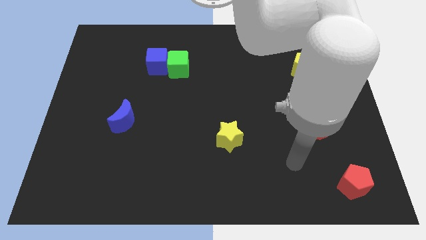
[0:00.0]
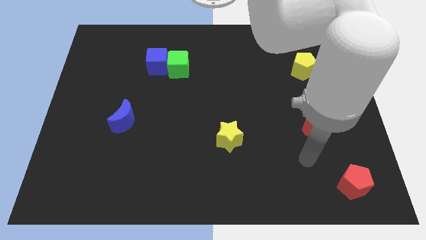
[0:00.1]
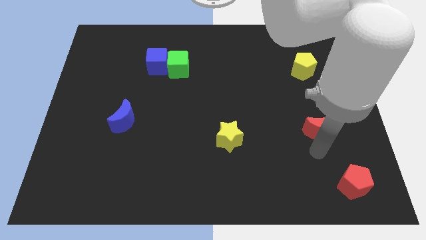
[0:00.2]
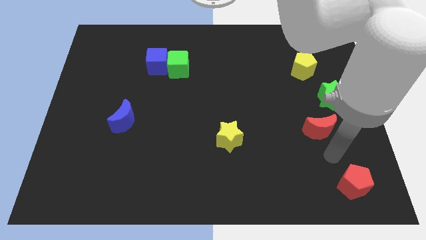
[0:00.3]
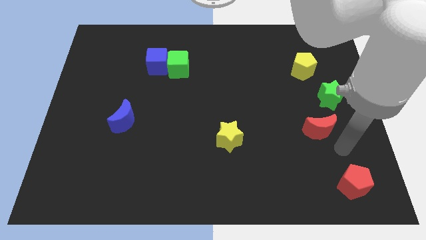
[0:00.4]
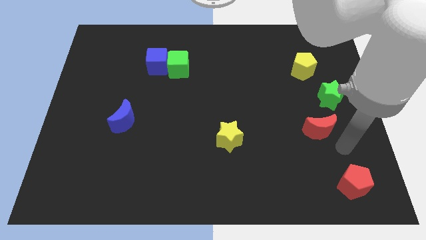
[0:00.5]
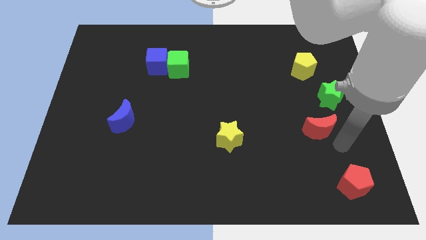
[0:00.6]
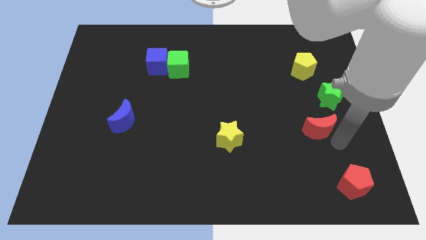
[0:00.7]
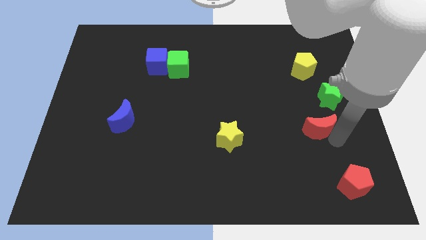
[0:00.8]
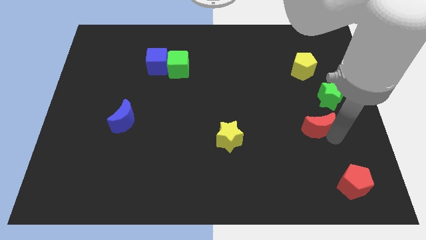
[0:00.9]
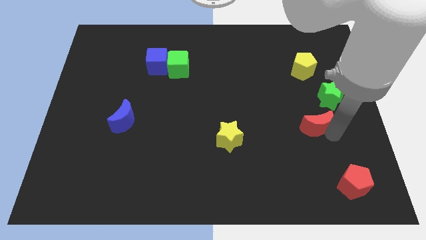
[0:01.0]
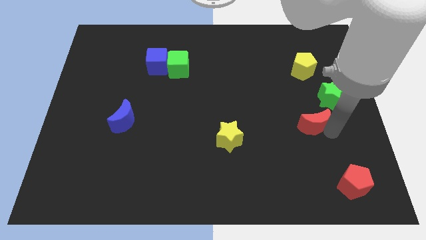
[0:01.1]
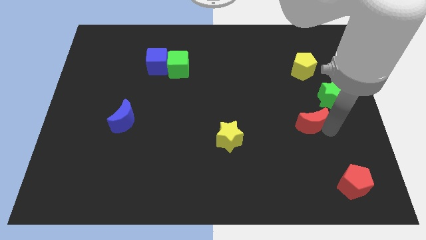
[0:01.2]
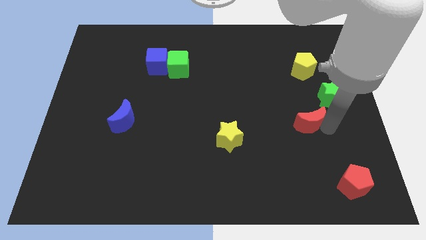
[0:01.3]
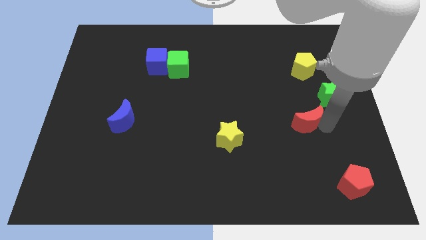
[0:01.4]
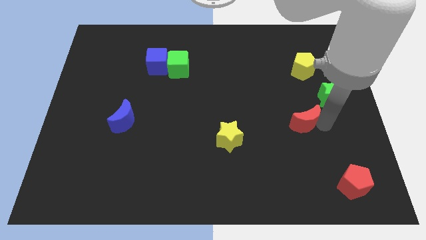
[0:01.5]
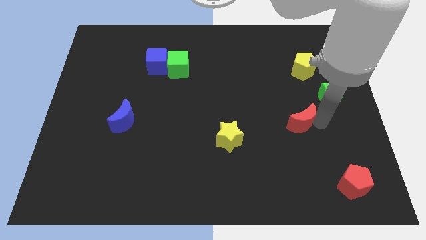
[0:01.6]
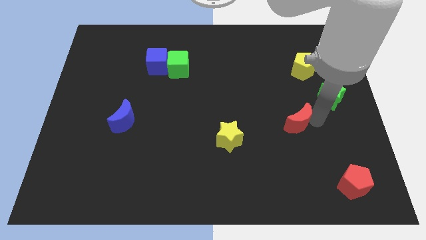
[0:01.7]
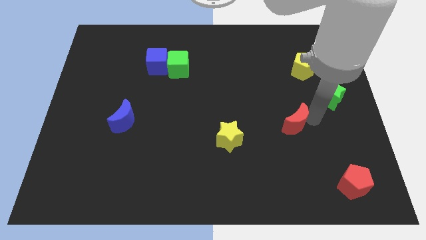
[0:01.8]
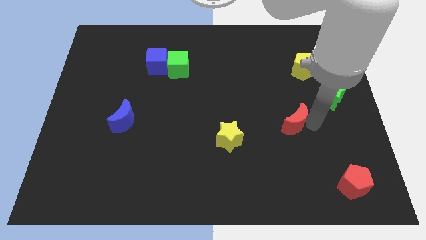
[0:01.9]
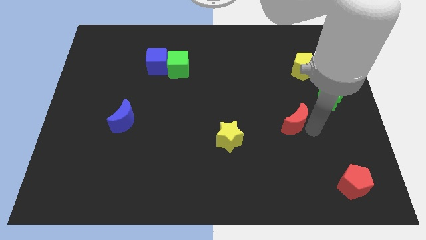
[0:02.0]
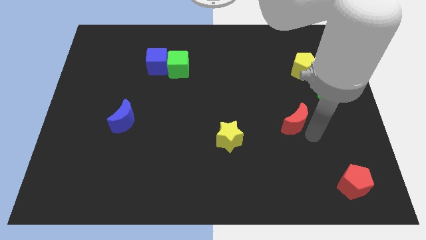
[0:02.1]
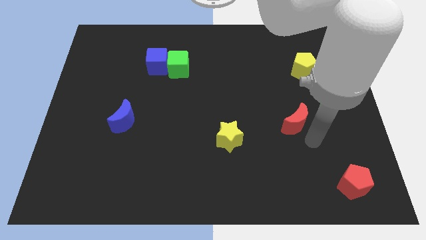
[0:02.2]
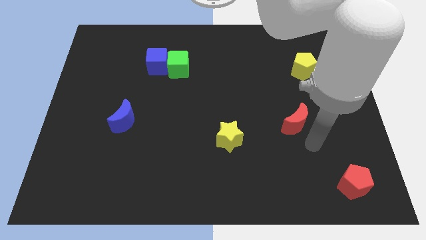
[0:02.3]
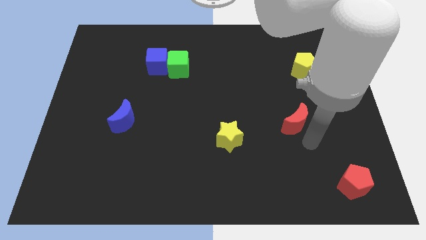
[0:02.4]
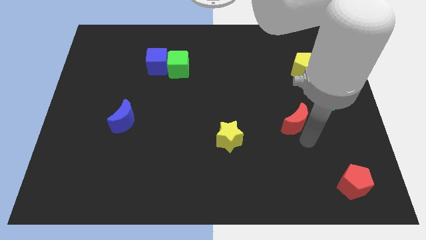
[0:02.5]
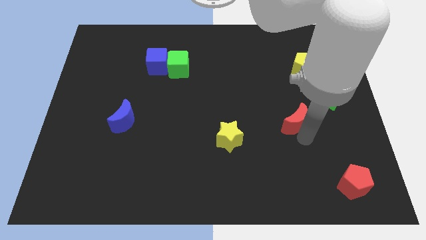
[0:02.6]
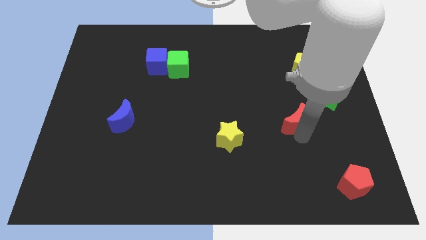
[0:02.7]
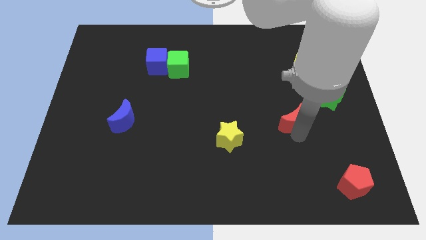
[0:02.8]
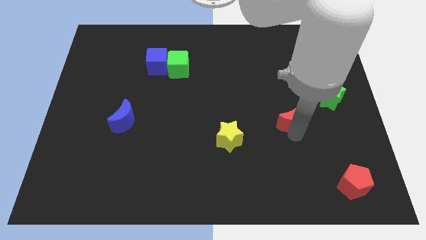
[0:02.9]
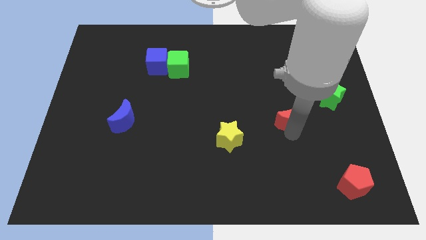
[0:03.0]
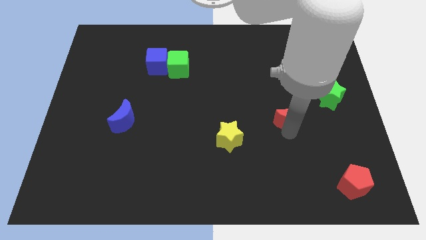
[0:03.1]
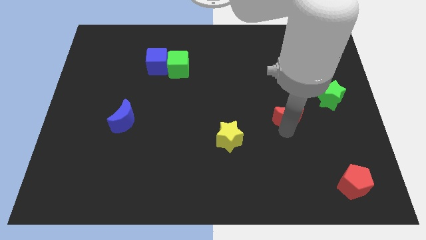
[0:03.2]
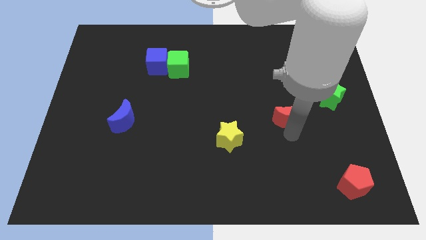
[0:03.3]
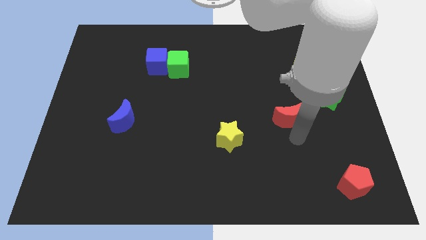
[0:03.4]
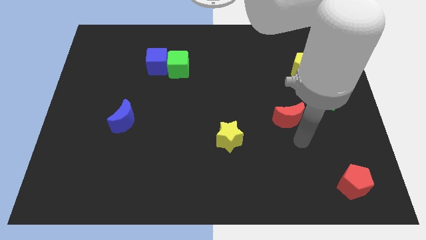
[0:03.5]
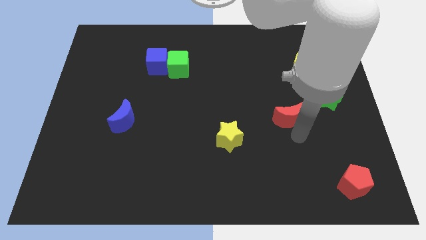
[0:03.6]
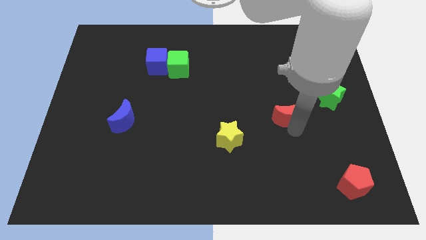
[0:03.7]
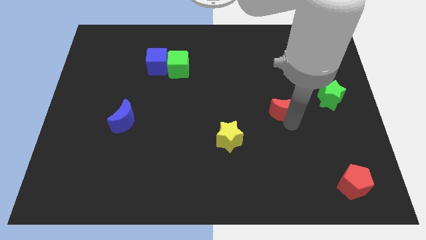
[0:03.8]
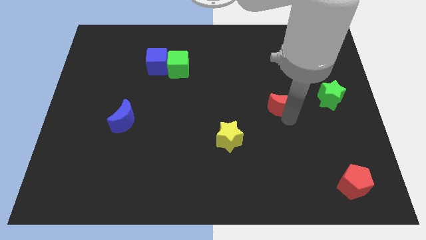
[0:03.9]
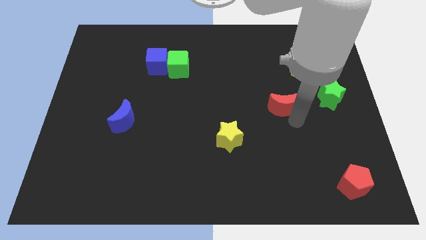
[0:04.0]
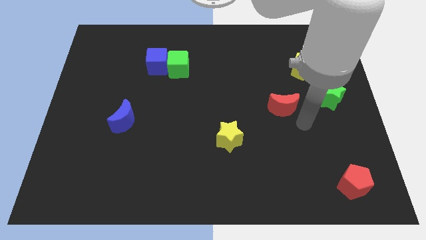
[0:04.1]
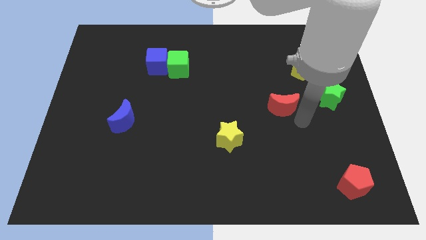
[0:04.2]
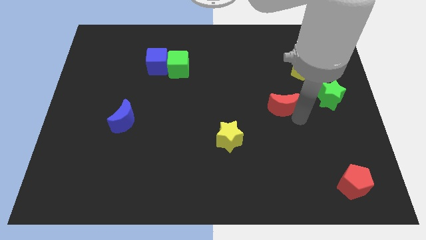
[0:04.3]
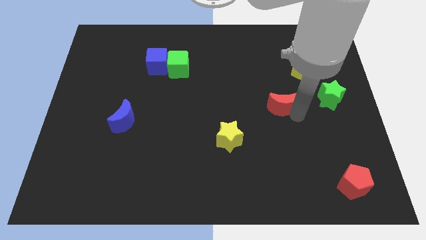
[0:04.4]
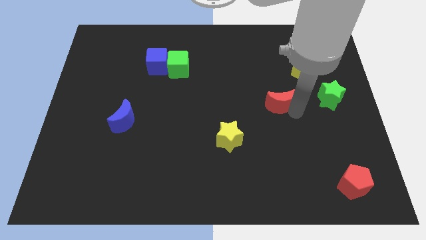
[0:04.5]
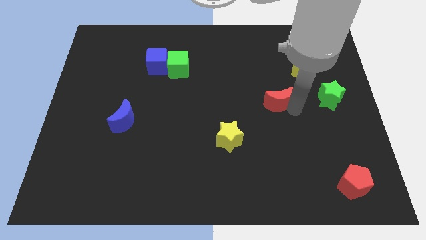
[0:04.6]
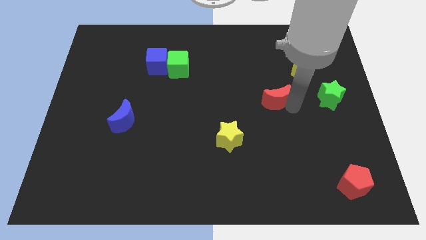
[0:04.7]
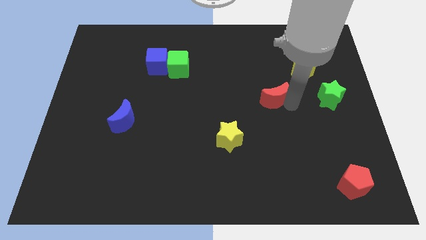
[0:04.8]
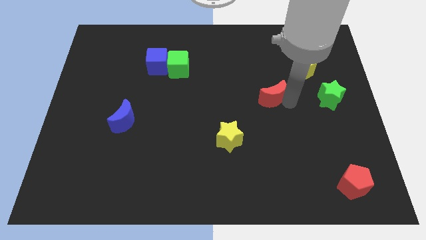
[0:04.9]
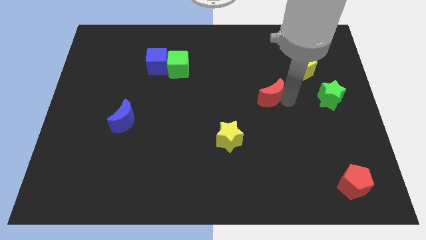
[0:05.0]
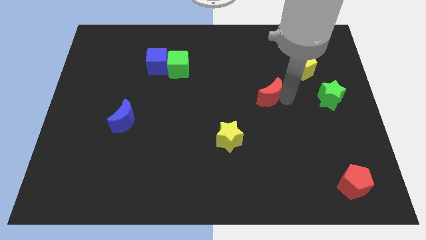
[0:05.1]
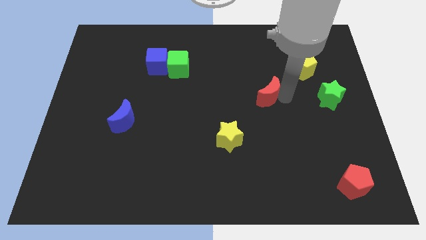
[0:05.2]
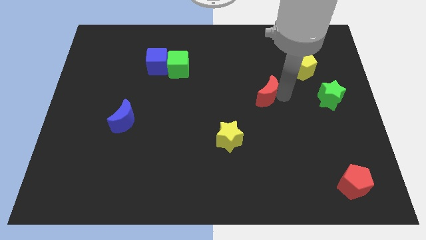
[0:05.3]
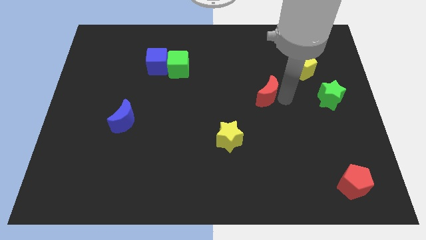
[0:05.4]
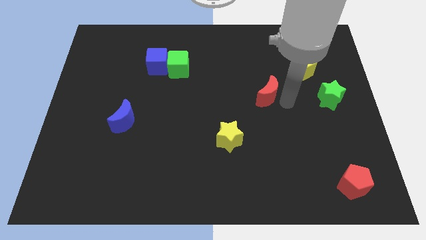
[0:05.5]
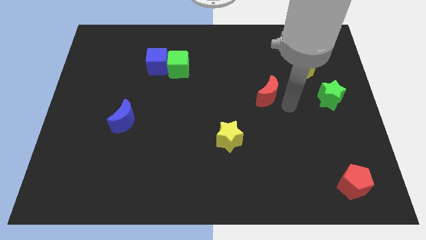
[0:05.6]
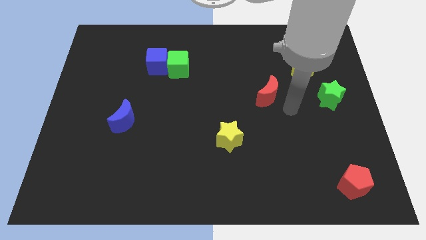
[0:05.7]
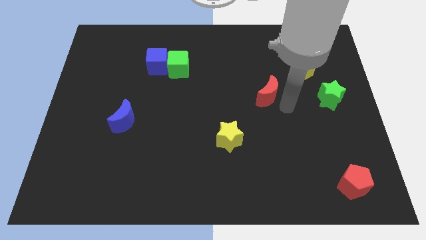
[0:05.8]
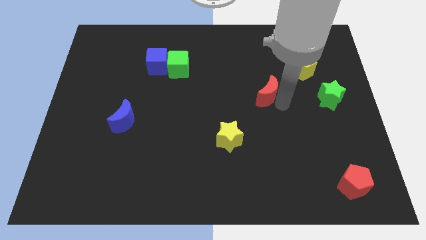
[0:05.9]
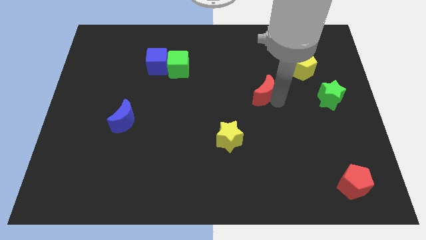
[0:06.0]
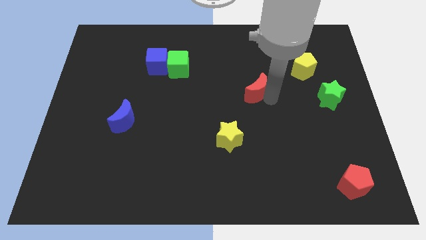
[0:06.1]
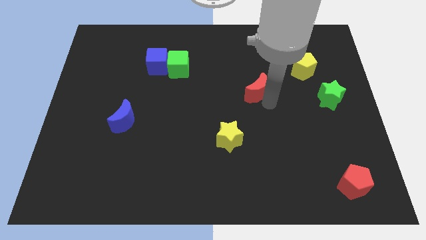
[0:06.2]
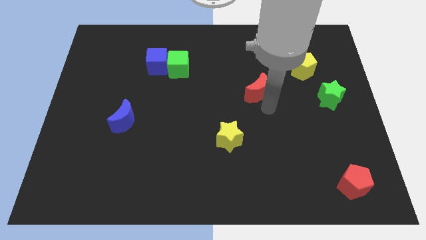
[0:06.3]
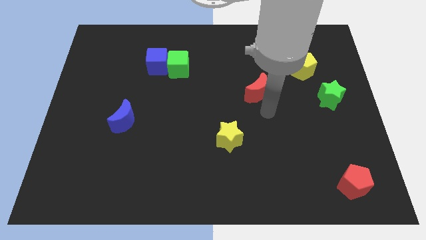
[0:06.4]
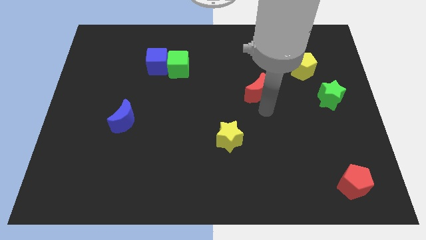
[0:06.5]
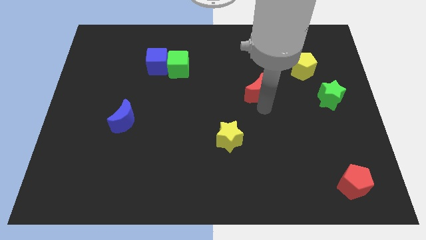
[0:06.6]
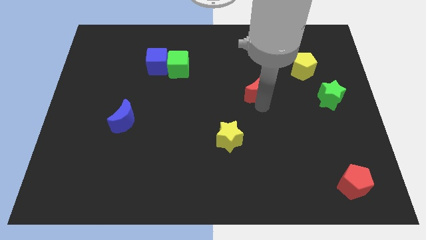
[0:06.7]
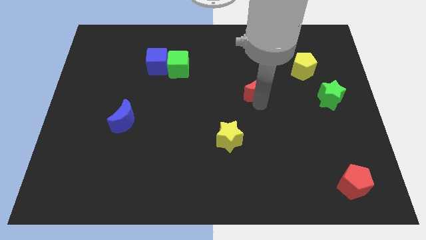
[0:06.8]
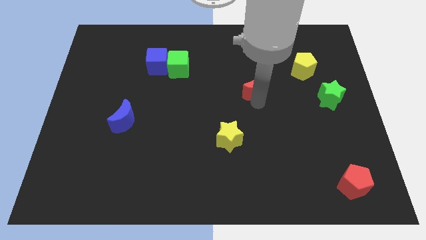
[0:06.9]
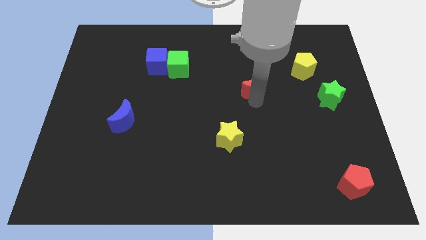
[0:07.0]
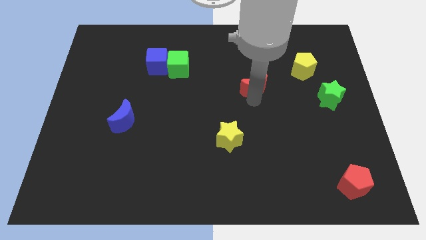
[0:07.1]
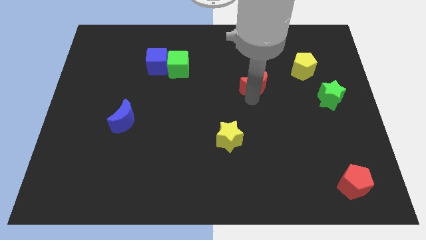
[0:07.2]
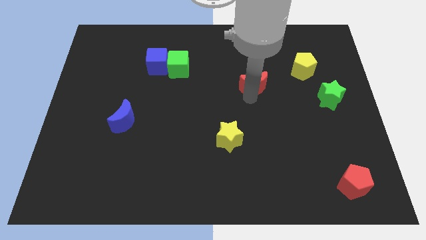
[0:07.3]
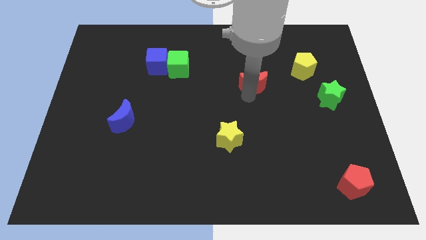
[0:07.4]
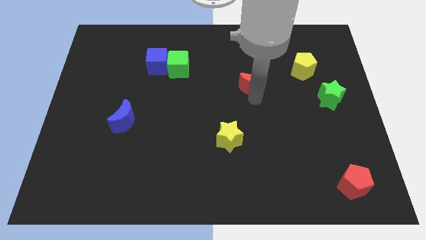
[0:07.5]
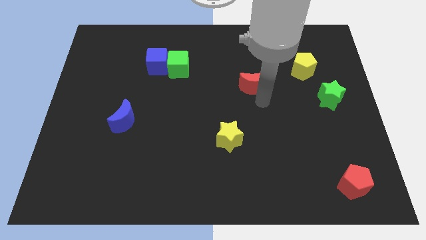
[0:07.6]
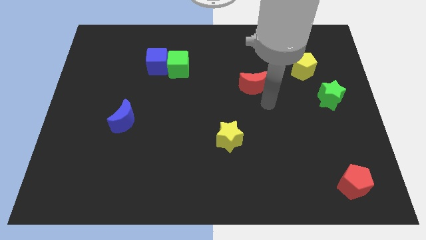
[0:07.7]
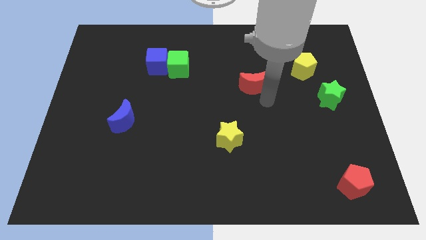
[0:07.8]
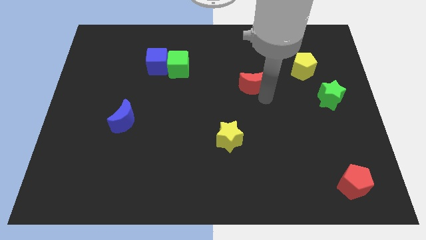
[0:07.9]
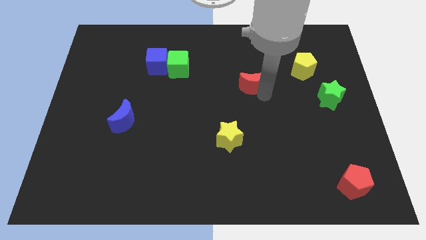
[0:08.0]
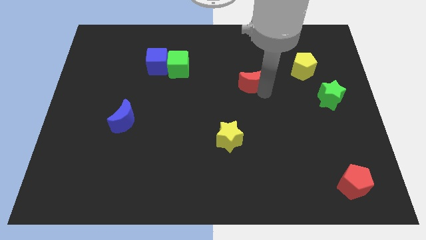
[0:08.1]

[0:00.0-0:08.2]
move the red moon up and then to the left
